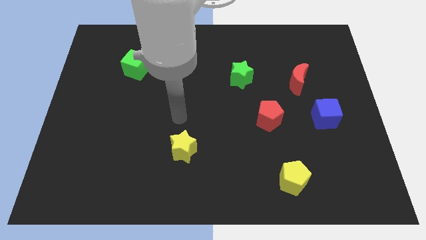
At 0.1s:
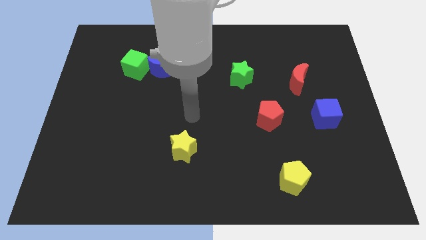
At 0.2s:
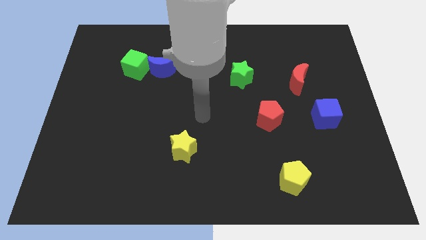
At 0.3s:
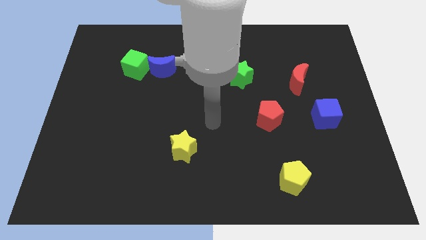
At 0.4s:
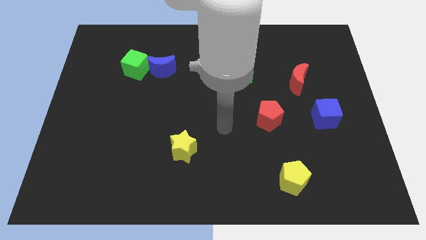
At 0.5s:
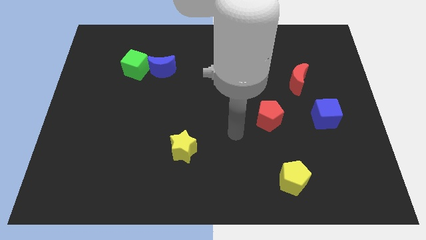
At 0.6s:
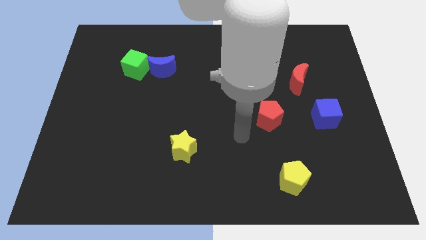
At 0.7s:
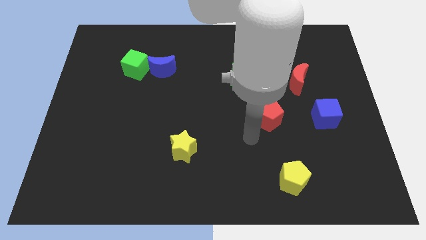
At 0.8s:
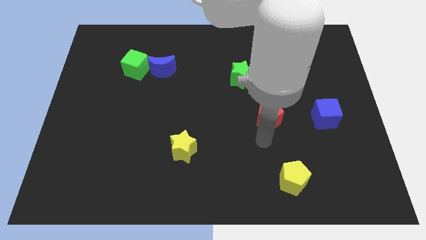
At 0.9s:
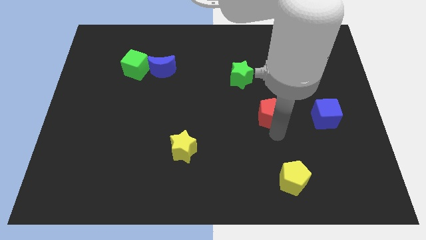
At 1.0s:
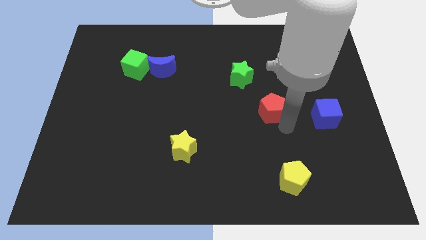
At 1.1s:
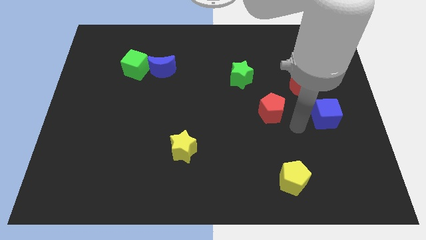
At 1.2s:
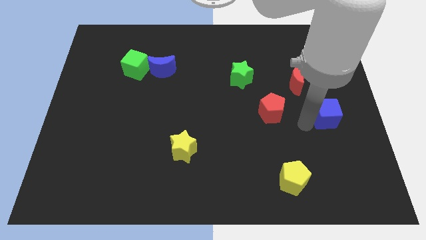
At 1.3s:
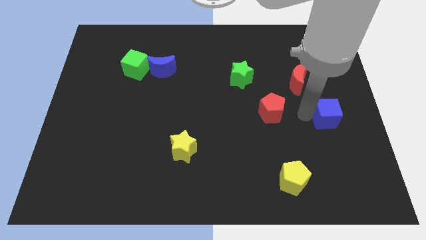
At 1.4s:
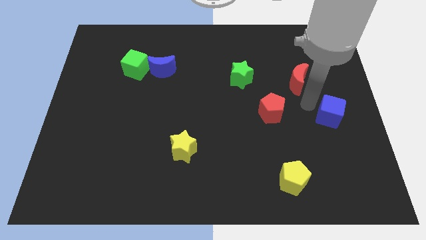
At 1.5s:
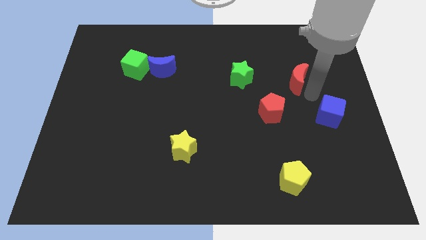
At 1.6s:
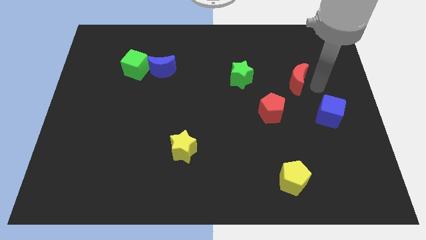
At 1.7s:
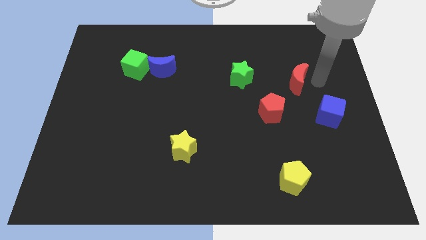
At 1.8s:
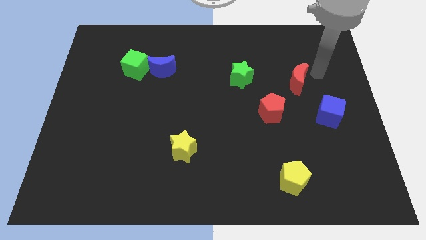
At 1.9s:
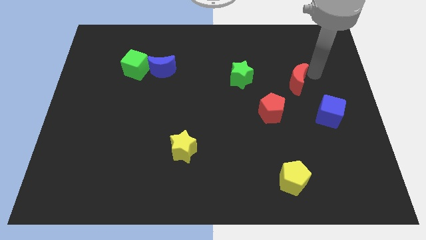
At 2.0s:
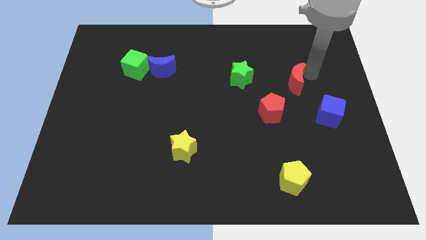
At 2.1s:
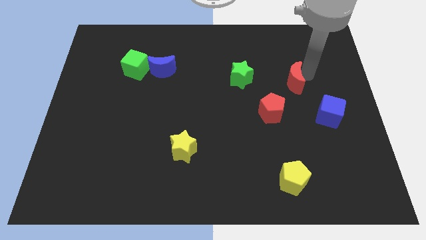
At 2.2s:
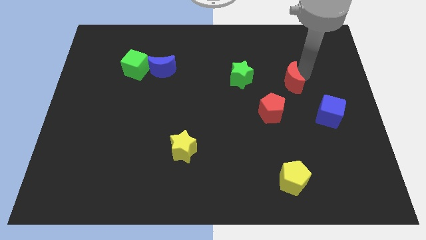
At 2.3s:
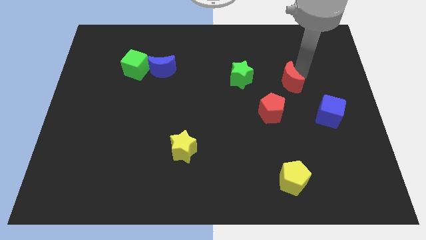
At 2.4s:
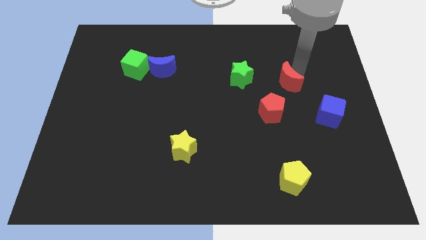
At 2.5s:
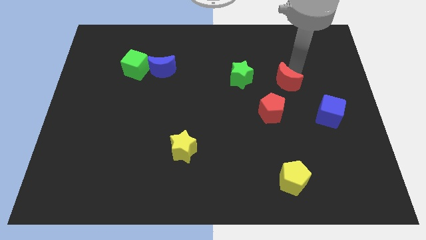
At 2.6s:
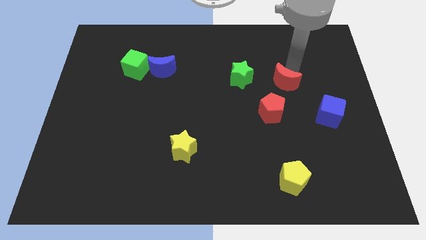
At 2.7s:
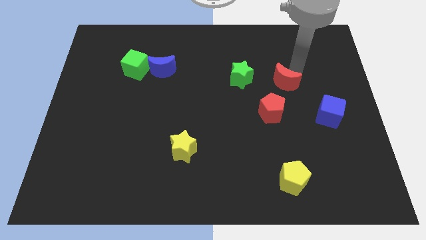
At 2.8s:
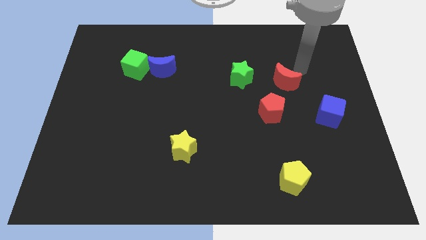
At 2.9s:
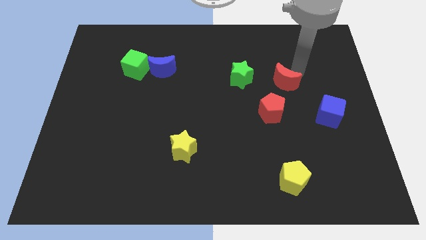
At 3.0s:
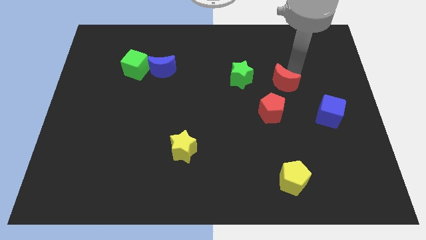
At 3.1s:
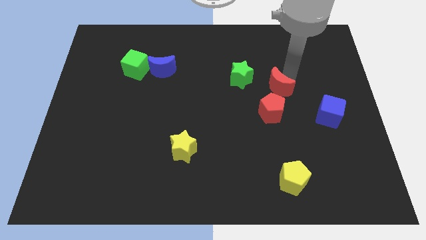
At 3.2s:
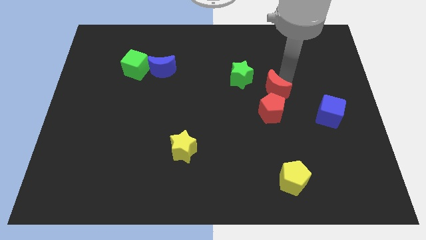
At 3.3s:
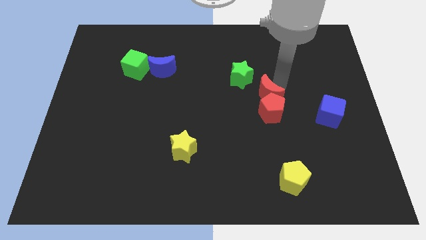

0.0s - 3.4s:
slide the red moon slightly diagonally downwards and to the left

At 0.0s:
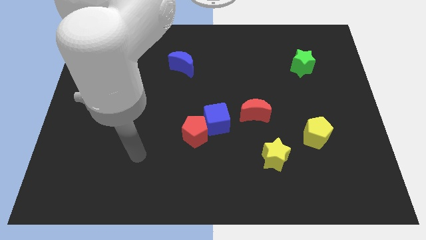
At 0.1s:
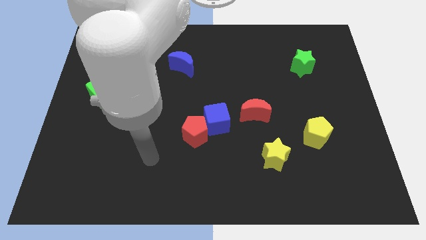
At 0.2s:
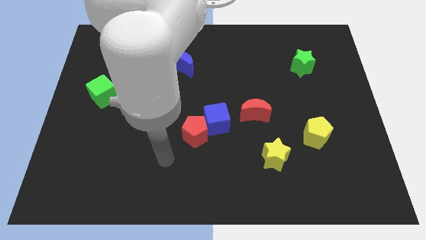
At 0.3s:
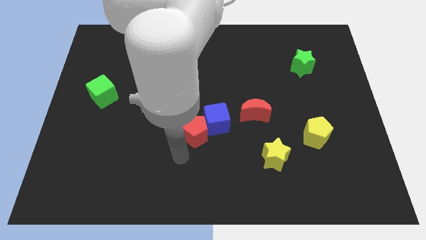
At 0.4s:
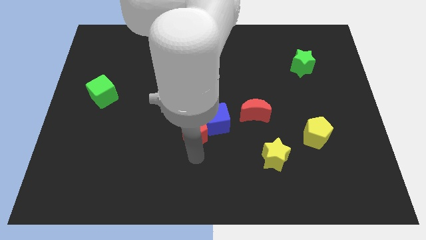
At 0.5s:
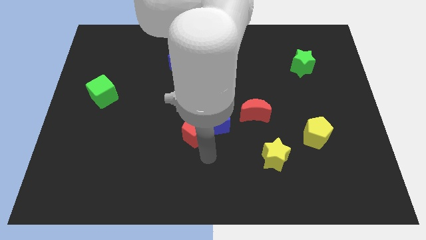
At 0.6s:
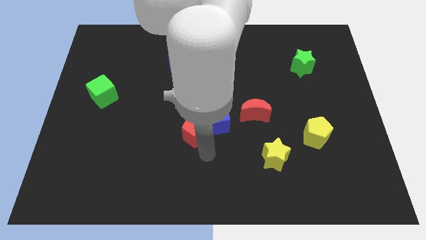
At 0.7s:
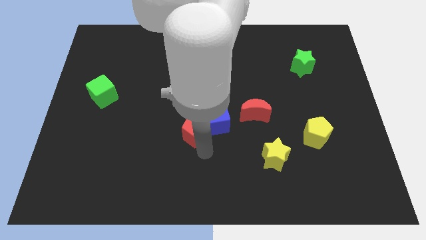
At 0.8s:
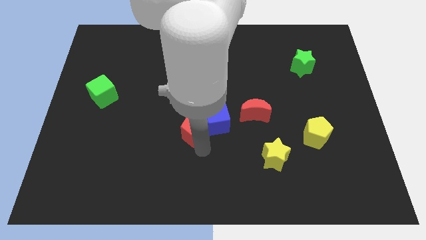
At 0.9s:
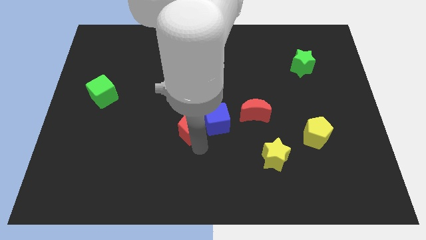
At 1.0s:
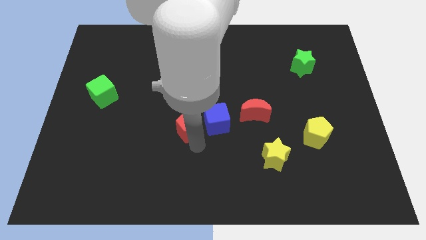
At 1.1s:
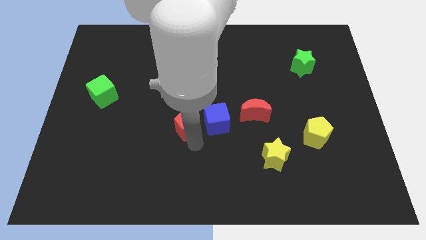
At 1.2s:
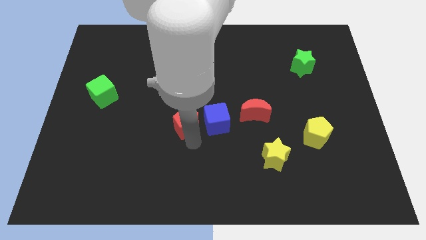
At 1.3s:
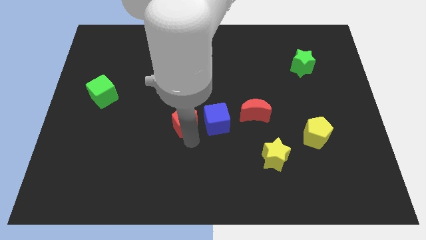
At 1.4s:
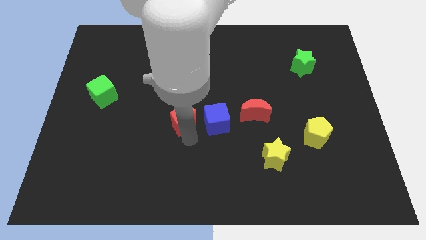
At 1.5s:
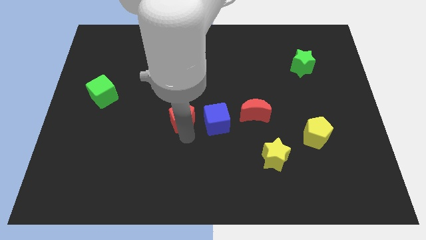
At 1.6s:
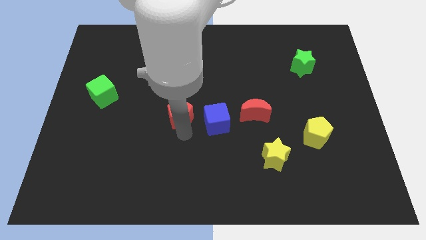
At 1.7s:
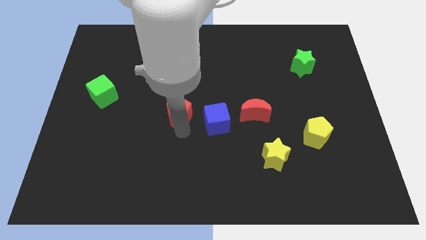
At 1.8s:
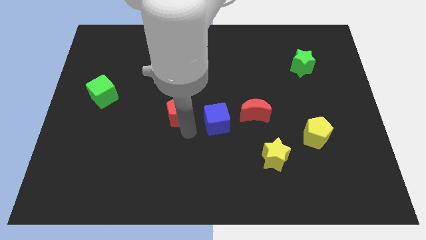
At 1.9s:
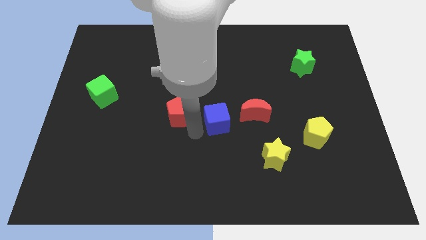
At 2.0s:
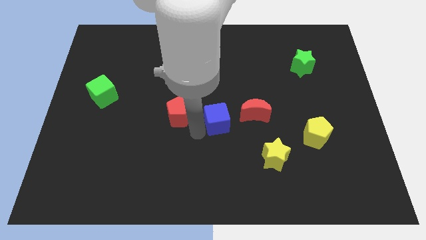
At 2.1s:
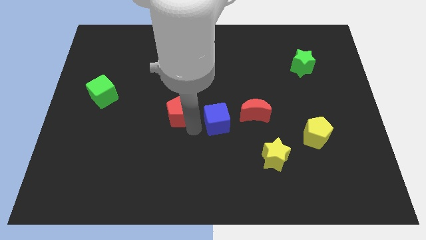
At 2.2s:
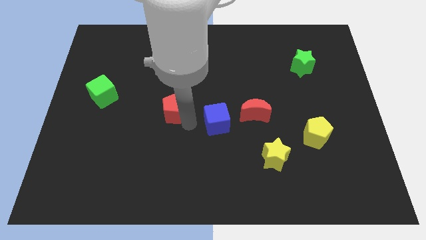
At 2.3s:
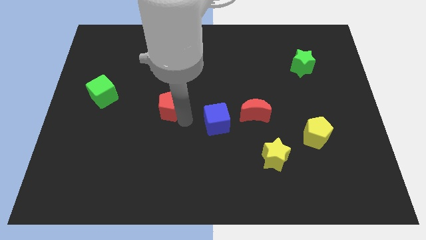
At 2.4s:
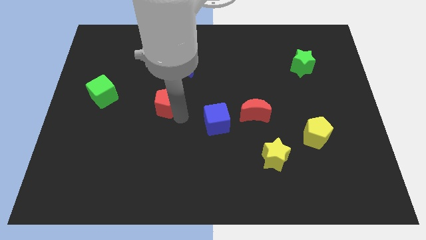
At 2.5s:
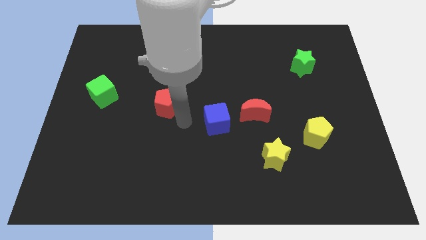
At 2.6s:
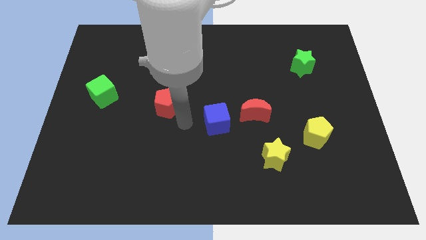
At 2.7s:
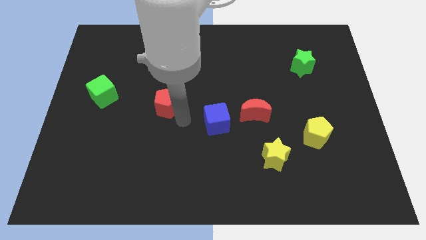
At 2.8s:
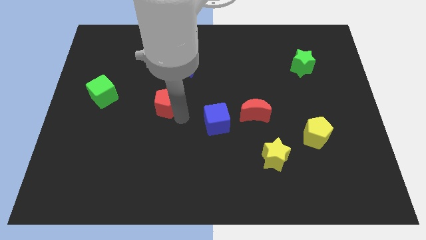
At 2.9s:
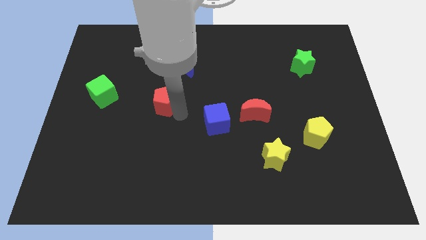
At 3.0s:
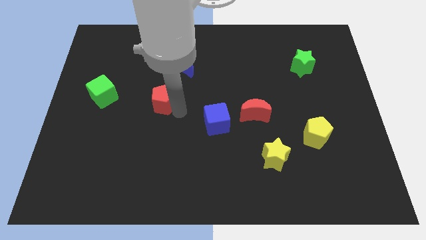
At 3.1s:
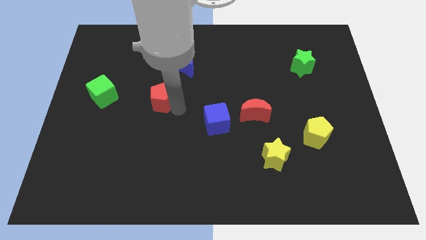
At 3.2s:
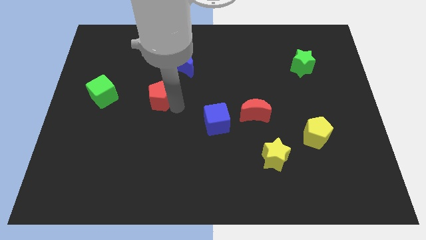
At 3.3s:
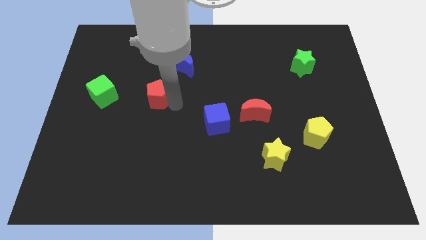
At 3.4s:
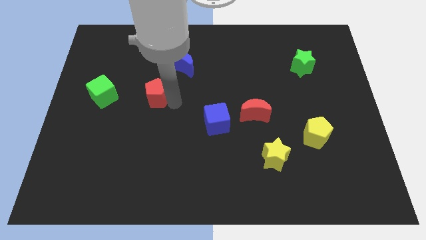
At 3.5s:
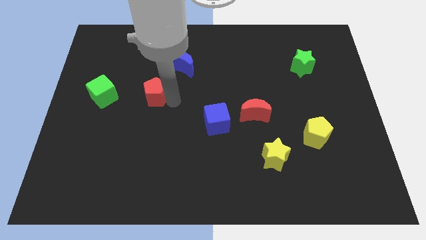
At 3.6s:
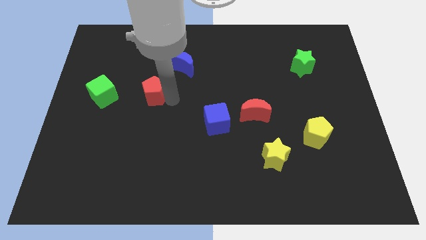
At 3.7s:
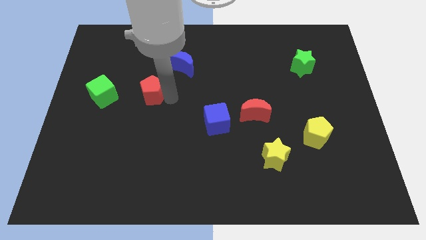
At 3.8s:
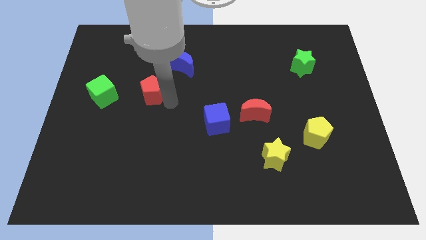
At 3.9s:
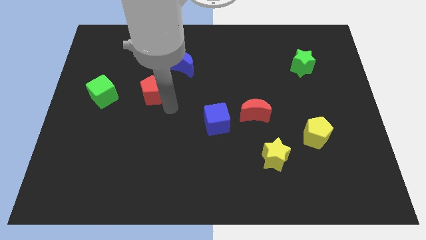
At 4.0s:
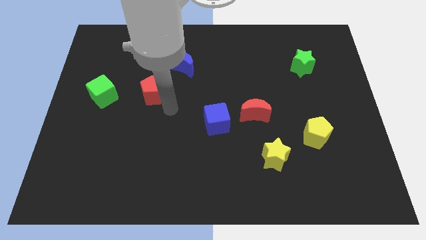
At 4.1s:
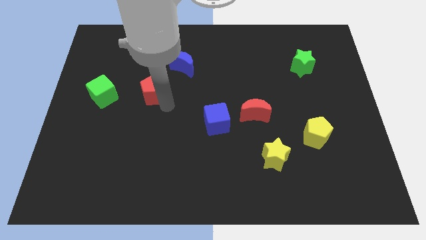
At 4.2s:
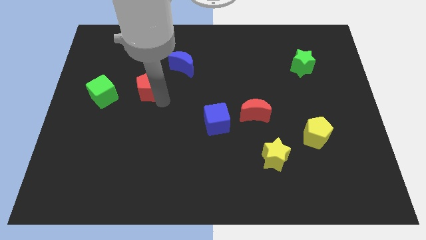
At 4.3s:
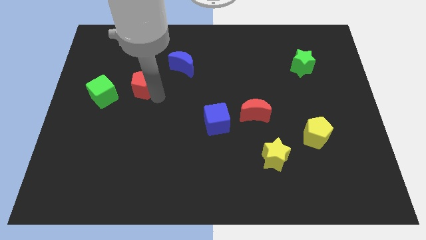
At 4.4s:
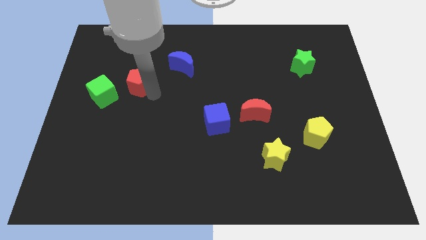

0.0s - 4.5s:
move the red pentagon diagonally upwards and to the left

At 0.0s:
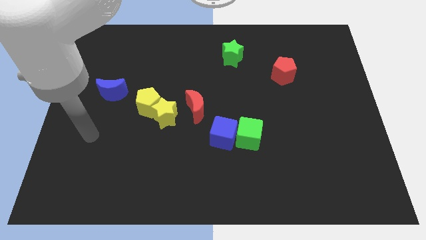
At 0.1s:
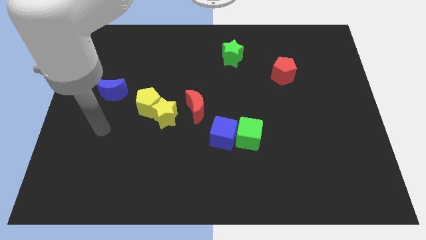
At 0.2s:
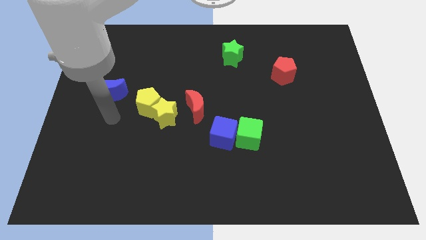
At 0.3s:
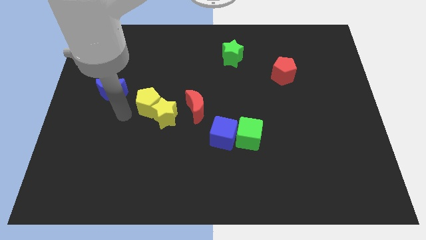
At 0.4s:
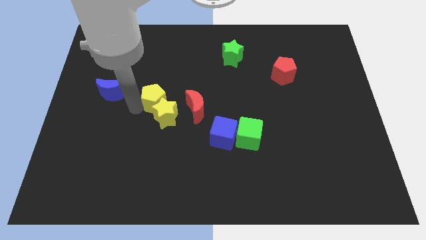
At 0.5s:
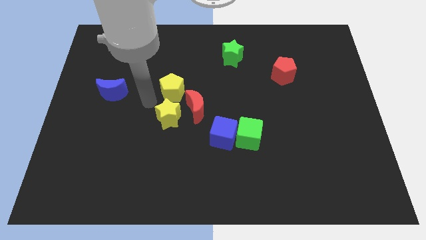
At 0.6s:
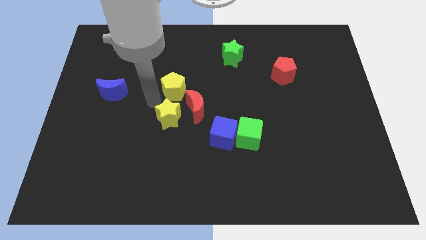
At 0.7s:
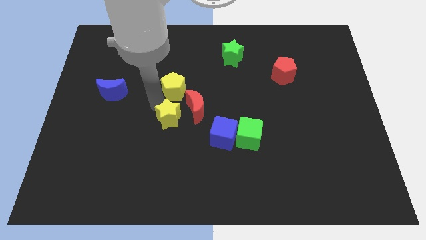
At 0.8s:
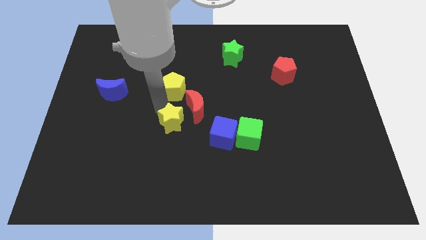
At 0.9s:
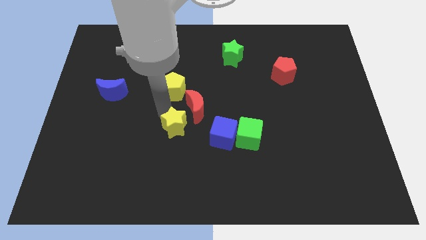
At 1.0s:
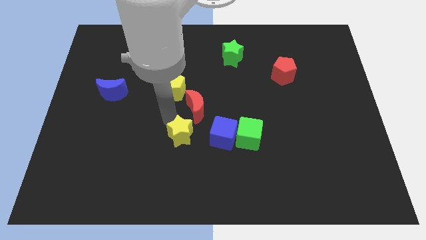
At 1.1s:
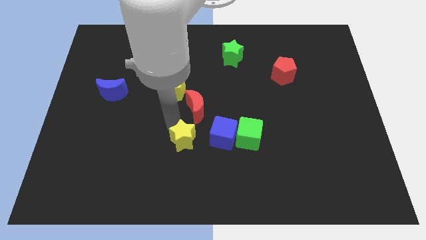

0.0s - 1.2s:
move the yellow star down and then right slightly
